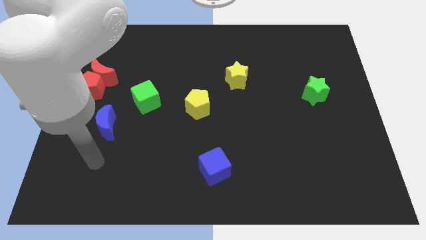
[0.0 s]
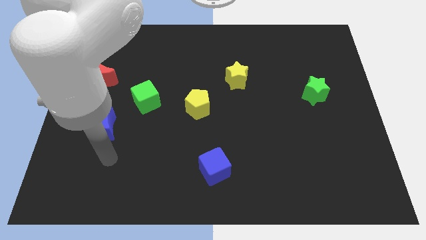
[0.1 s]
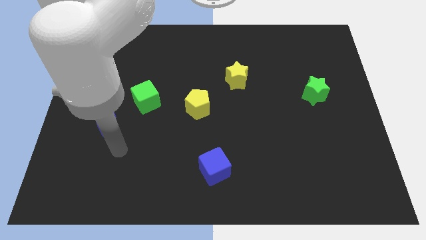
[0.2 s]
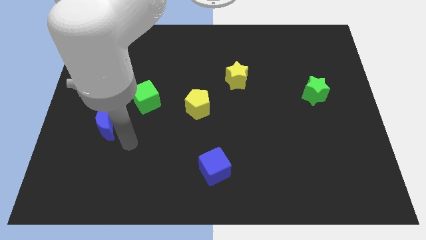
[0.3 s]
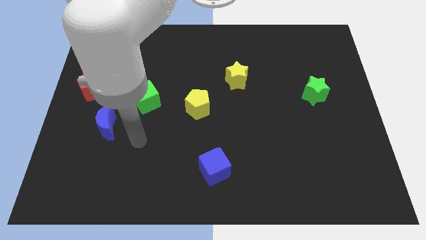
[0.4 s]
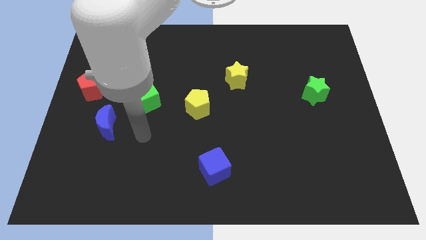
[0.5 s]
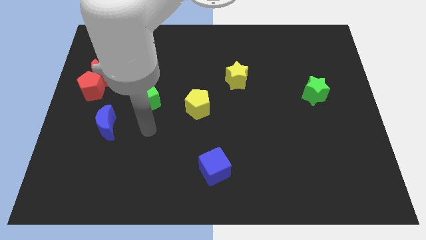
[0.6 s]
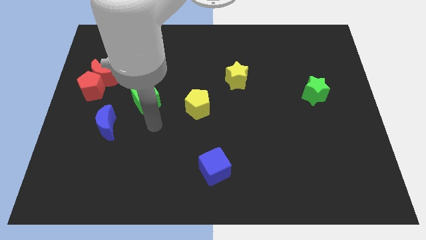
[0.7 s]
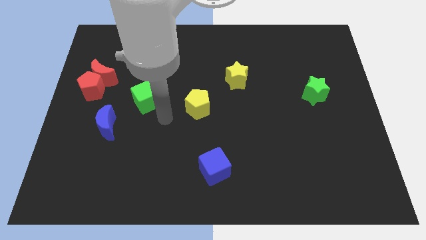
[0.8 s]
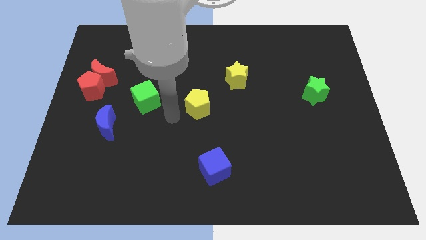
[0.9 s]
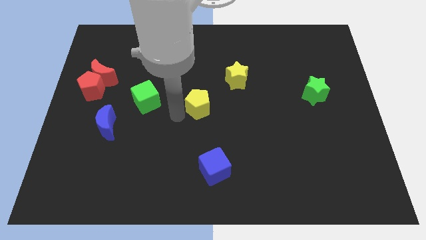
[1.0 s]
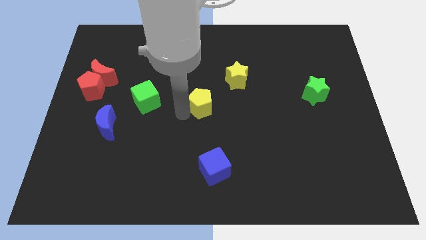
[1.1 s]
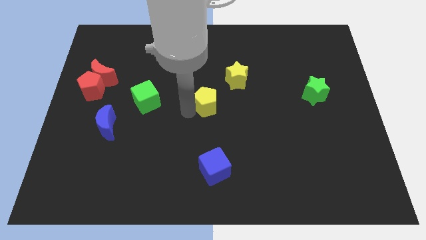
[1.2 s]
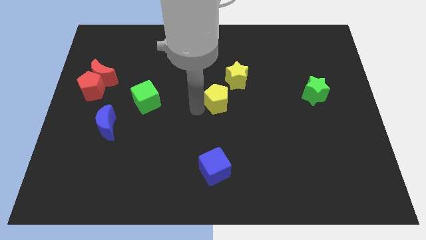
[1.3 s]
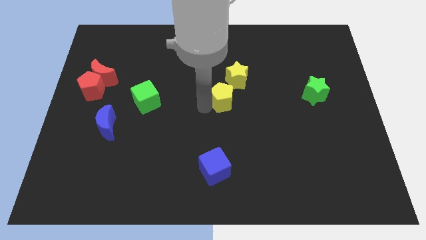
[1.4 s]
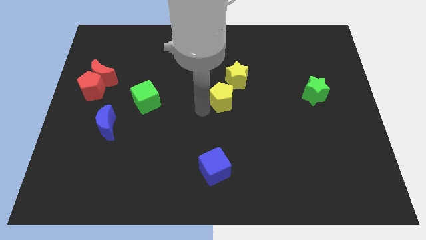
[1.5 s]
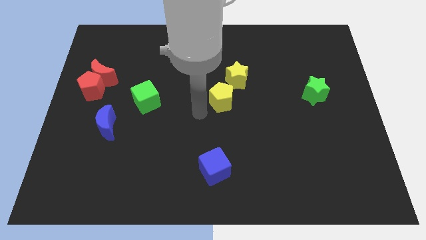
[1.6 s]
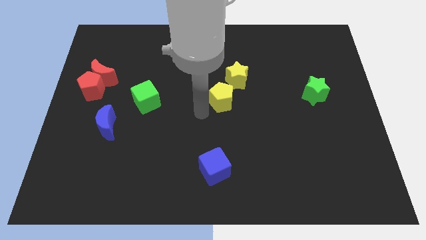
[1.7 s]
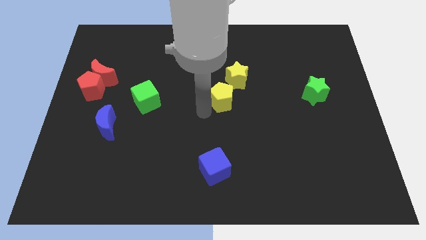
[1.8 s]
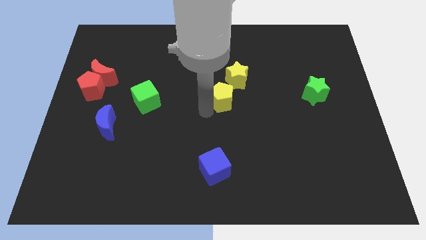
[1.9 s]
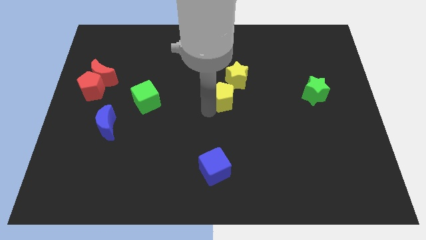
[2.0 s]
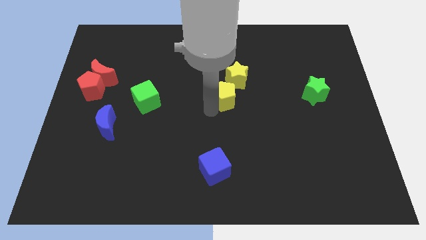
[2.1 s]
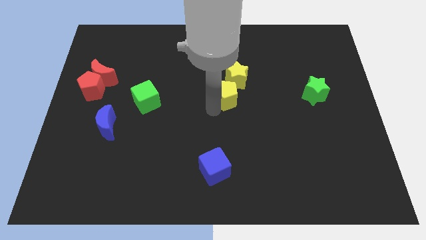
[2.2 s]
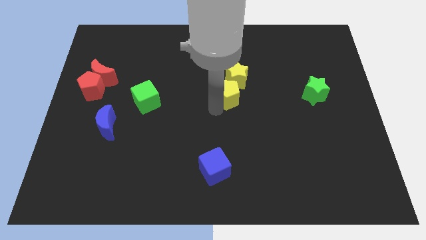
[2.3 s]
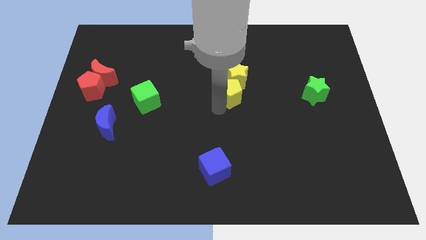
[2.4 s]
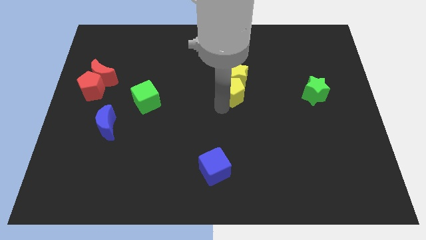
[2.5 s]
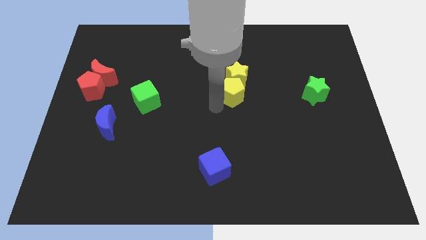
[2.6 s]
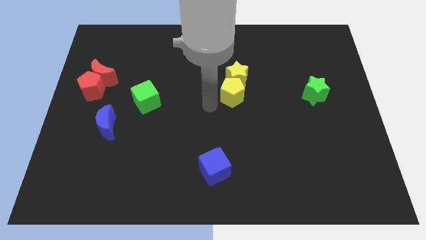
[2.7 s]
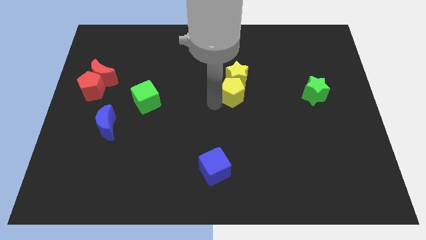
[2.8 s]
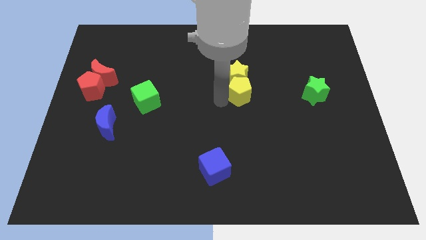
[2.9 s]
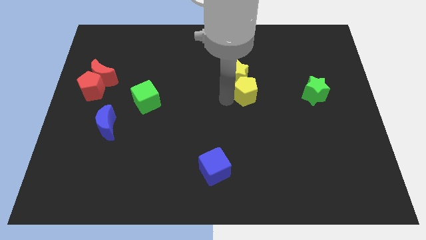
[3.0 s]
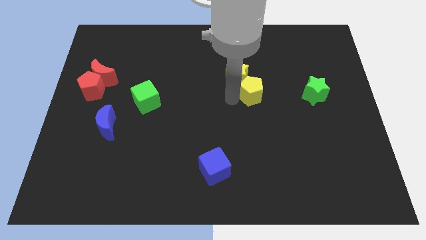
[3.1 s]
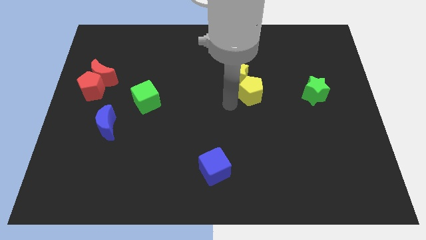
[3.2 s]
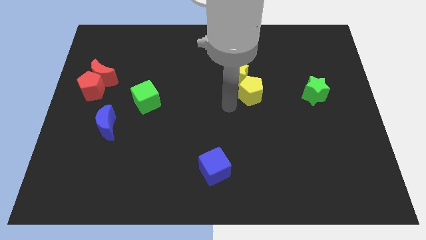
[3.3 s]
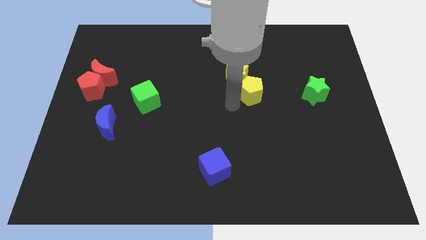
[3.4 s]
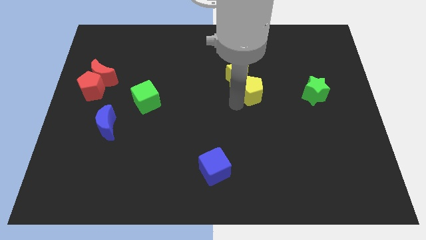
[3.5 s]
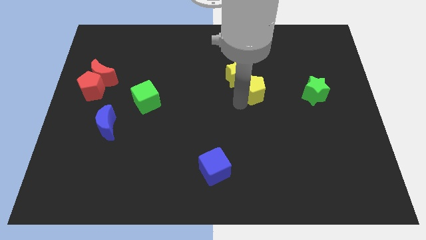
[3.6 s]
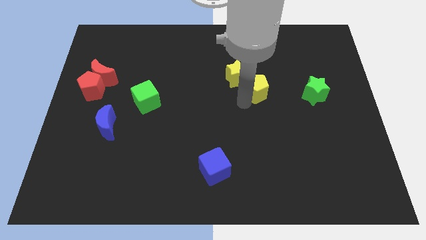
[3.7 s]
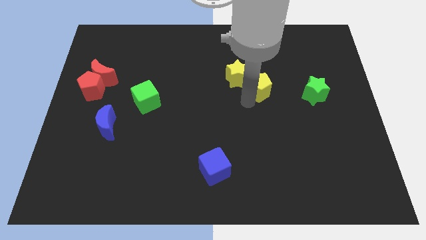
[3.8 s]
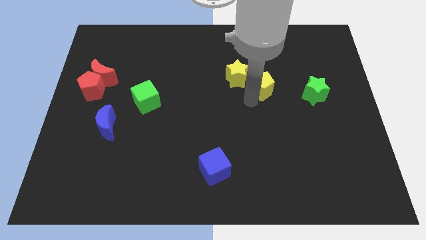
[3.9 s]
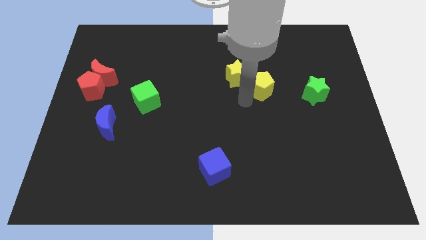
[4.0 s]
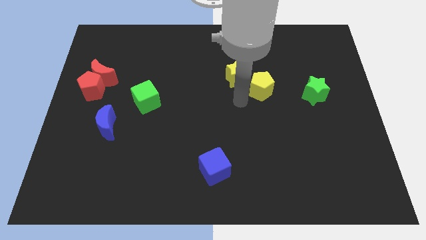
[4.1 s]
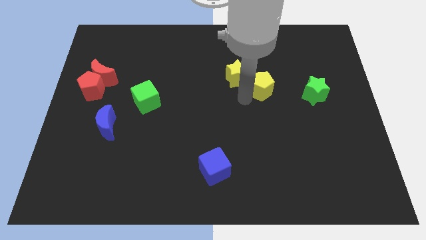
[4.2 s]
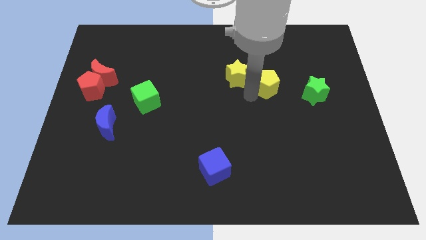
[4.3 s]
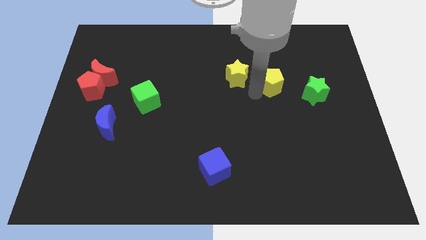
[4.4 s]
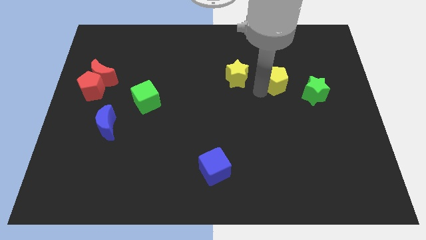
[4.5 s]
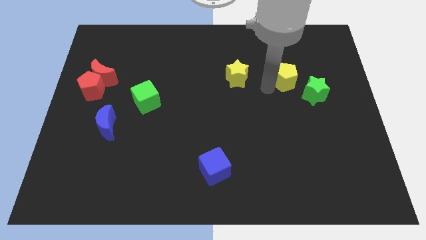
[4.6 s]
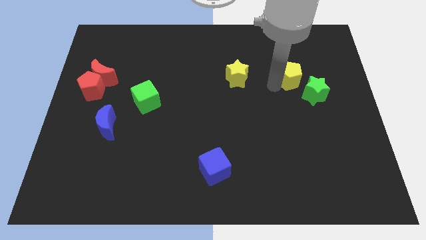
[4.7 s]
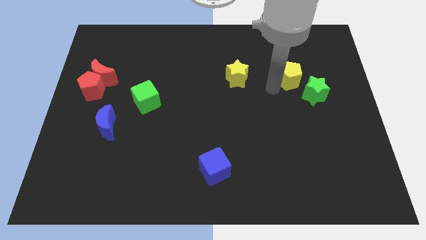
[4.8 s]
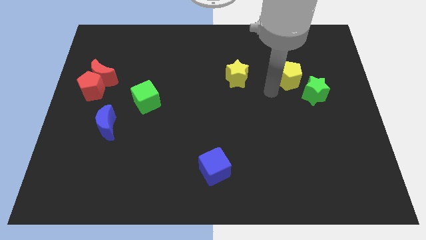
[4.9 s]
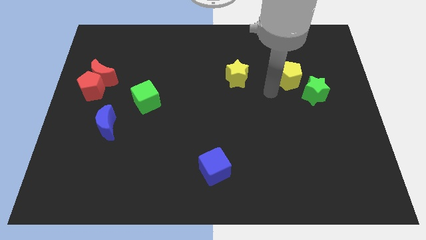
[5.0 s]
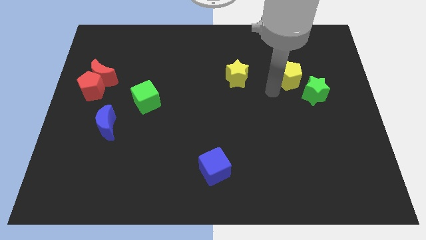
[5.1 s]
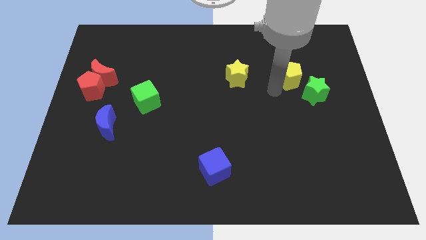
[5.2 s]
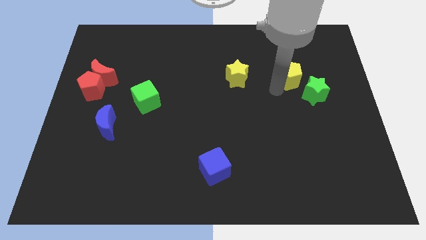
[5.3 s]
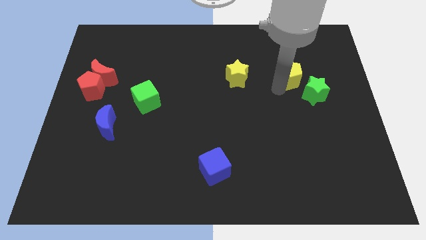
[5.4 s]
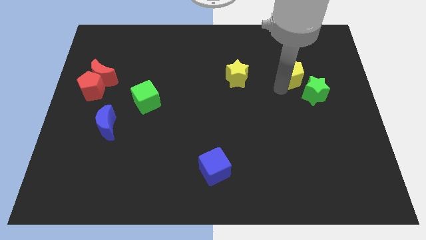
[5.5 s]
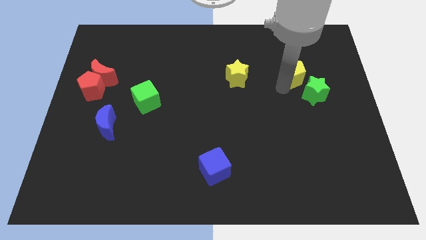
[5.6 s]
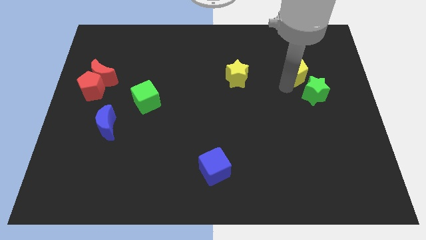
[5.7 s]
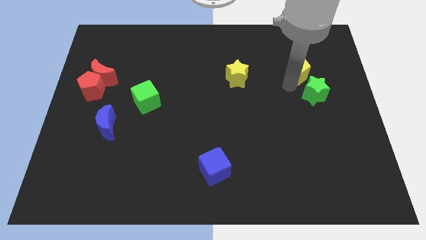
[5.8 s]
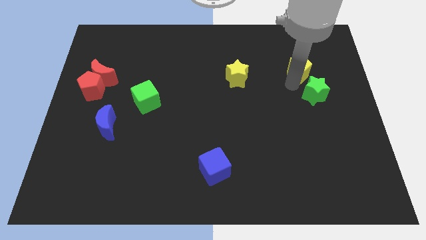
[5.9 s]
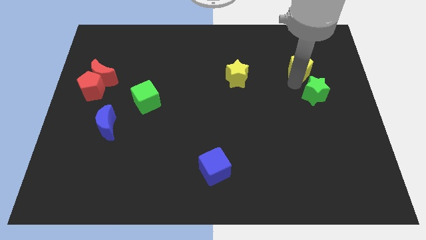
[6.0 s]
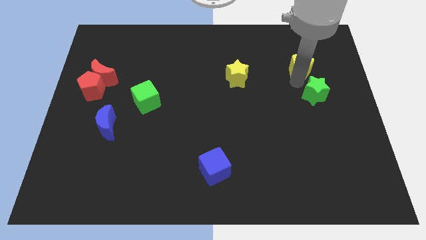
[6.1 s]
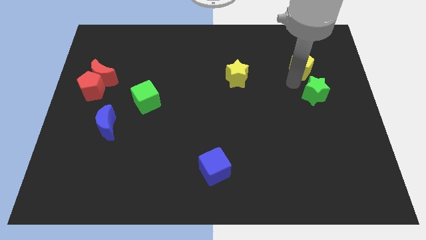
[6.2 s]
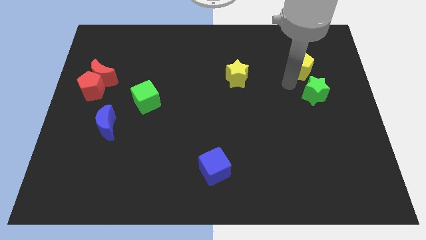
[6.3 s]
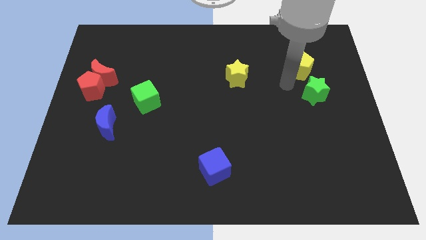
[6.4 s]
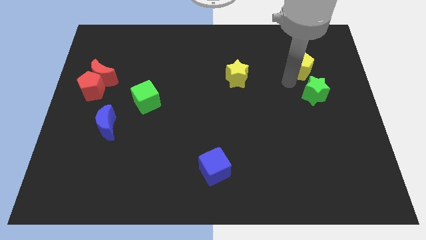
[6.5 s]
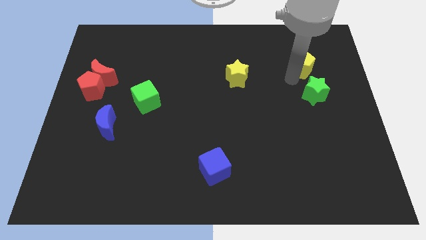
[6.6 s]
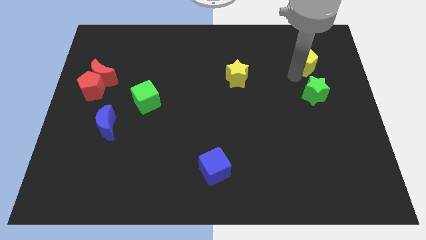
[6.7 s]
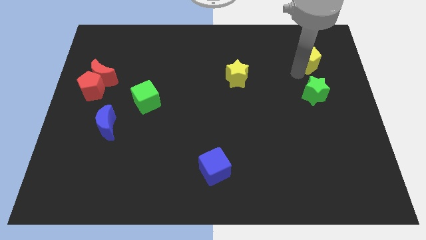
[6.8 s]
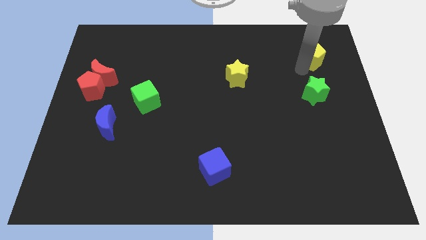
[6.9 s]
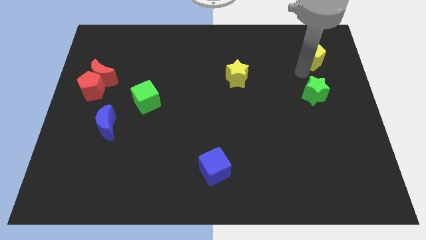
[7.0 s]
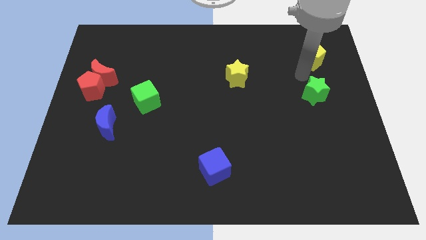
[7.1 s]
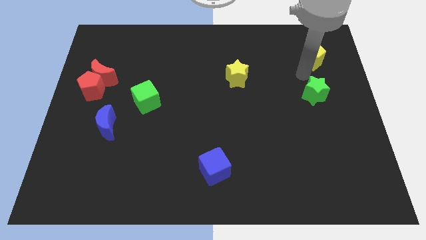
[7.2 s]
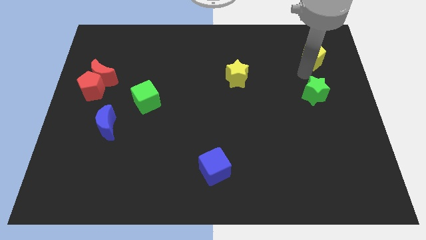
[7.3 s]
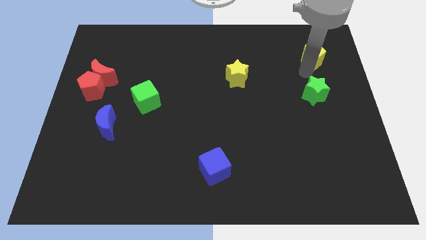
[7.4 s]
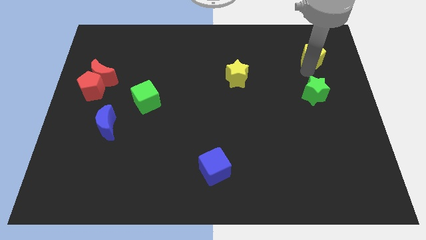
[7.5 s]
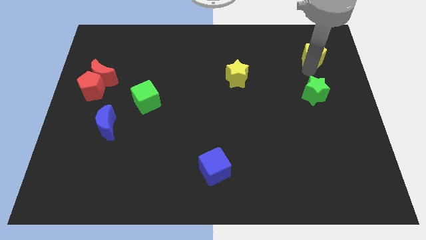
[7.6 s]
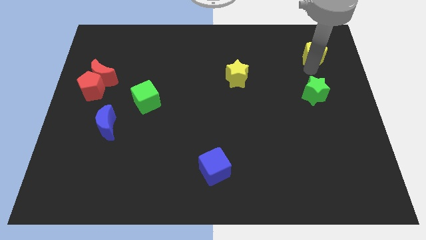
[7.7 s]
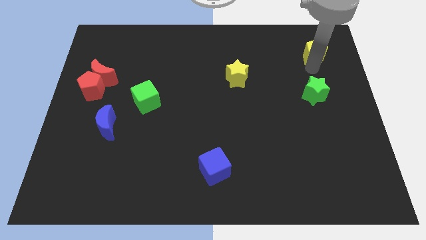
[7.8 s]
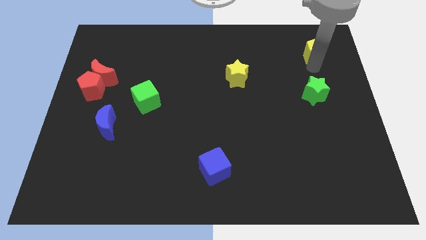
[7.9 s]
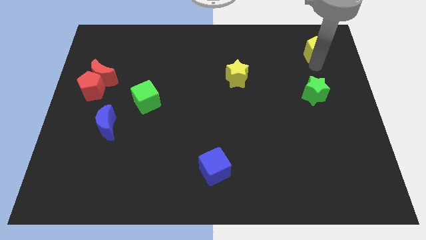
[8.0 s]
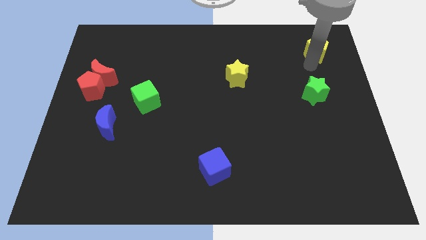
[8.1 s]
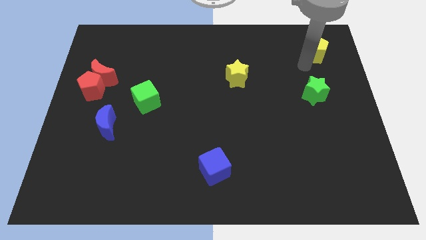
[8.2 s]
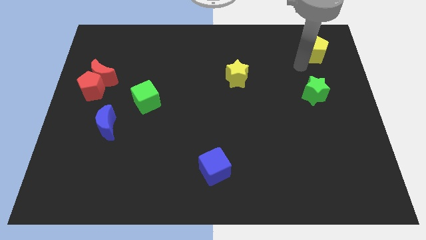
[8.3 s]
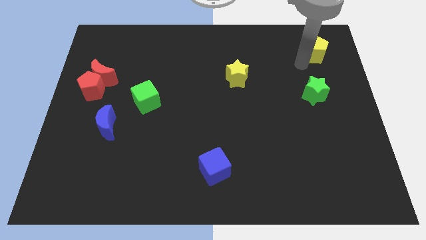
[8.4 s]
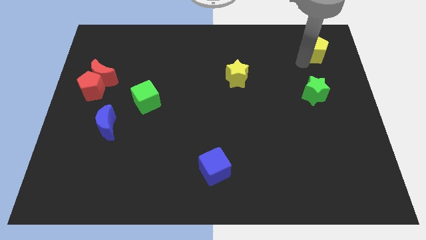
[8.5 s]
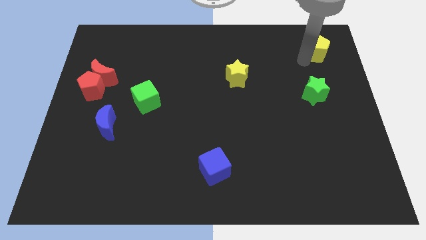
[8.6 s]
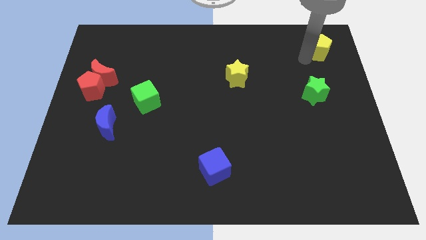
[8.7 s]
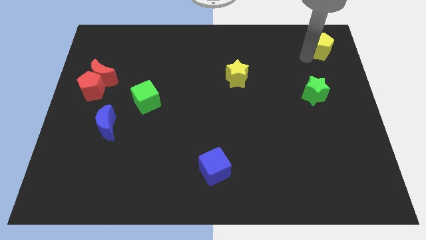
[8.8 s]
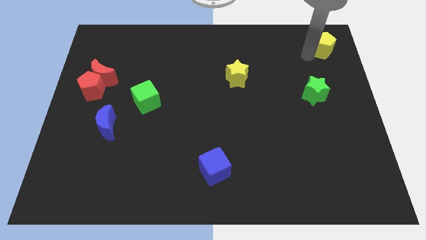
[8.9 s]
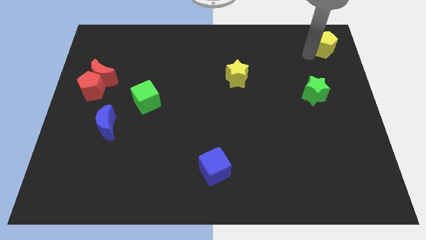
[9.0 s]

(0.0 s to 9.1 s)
put the yellow pentagon to the top right
